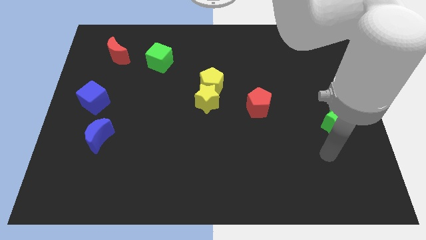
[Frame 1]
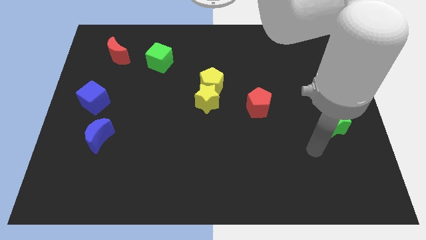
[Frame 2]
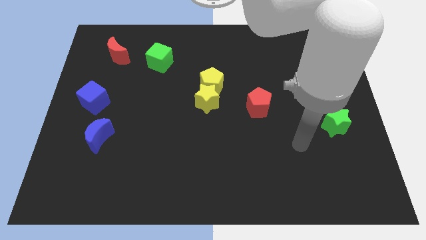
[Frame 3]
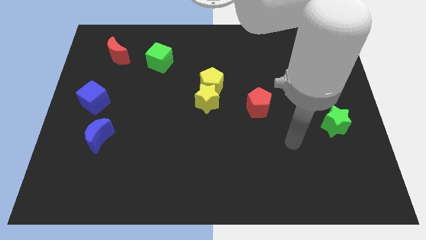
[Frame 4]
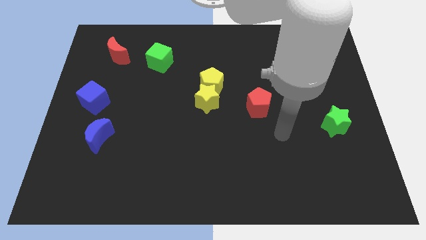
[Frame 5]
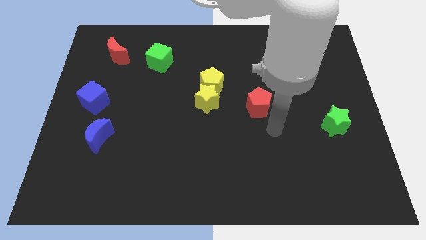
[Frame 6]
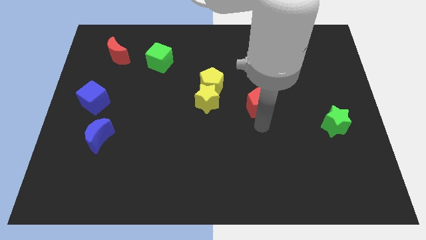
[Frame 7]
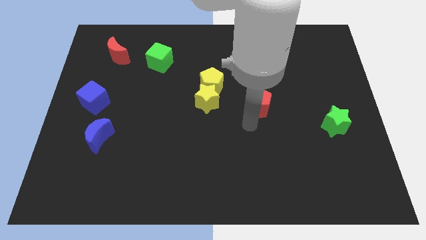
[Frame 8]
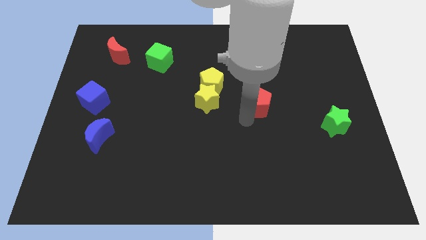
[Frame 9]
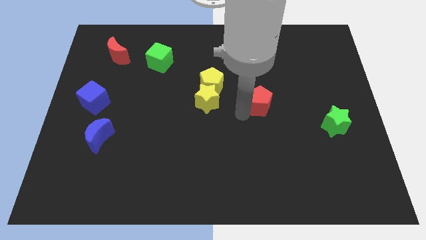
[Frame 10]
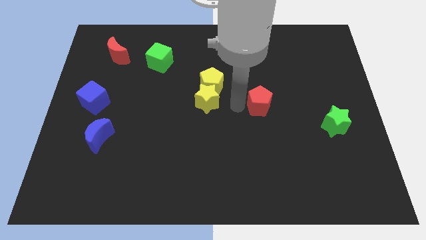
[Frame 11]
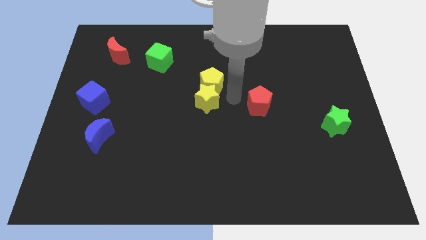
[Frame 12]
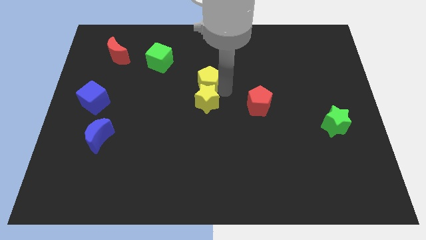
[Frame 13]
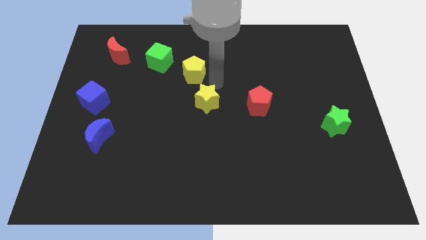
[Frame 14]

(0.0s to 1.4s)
separate the yellow star from the yellow pentagon

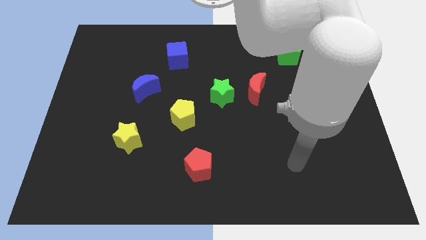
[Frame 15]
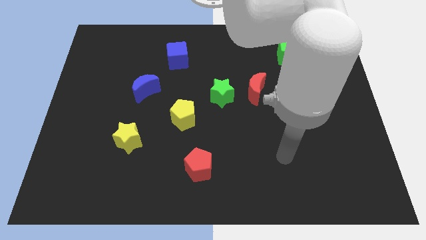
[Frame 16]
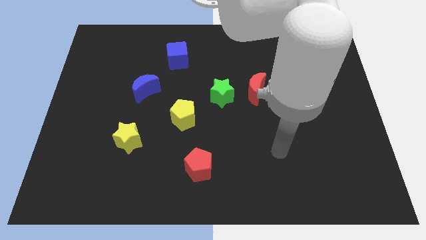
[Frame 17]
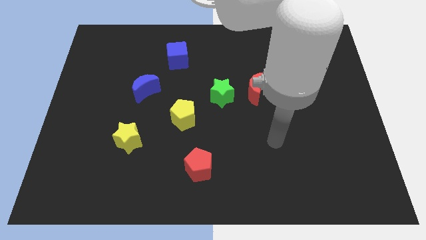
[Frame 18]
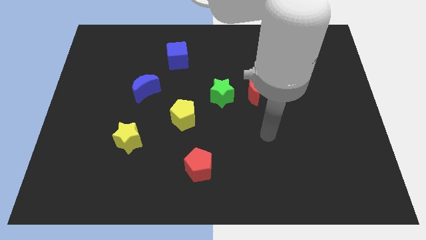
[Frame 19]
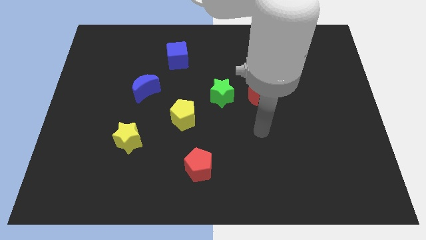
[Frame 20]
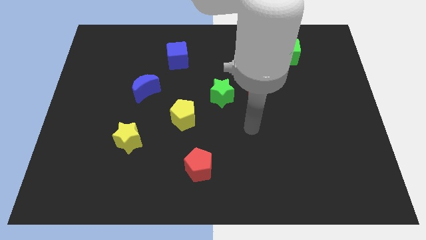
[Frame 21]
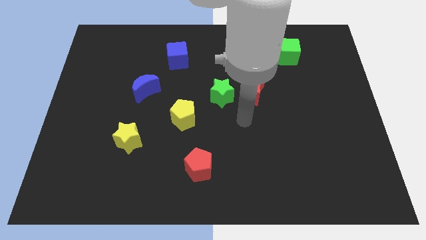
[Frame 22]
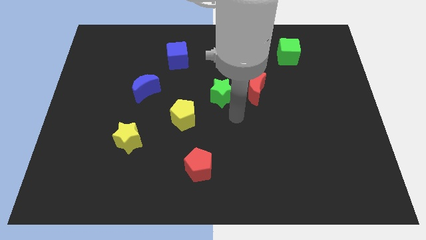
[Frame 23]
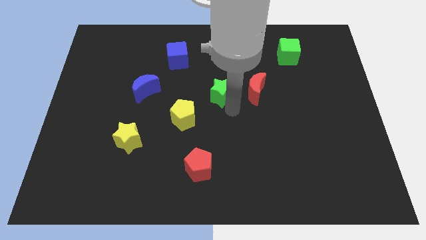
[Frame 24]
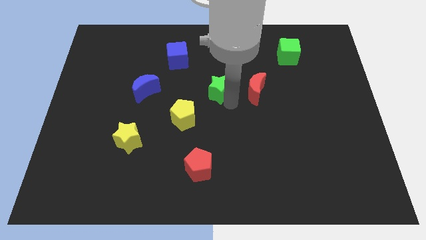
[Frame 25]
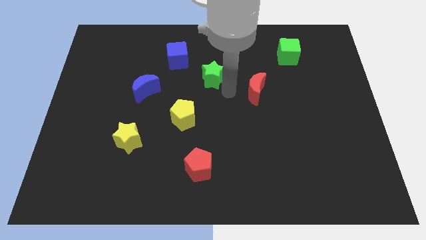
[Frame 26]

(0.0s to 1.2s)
move the red moon away from the green star

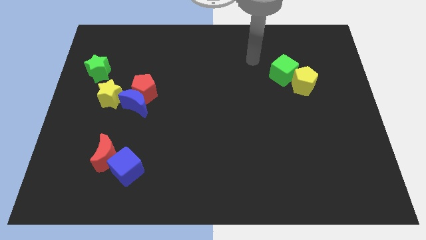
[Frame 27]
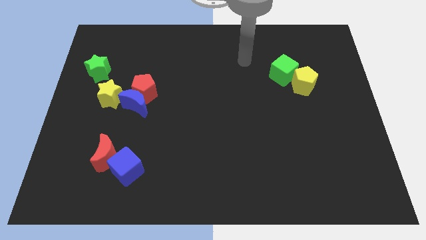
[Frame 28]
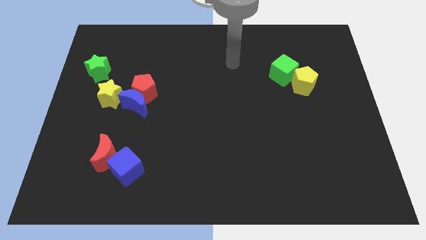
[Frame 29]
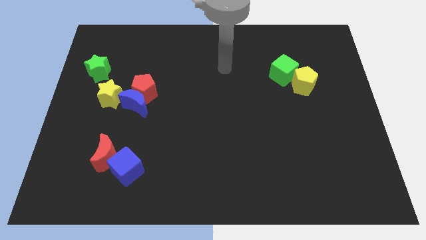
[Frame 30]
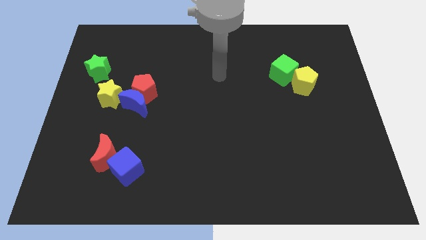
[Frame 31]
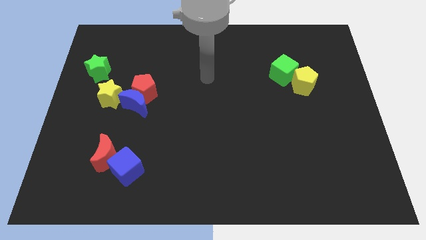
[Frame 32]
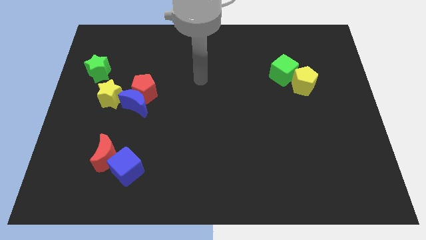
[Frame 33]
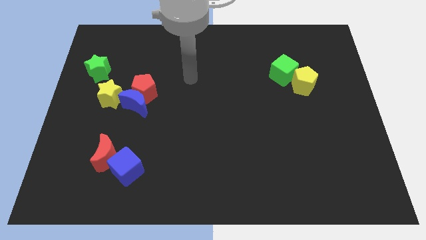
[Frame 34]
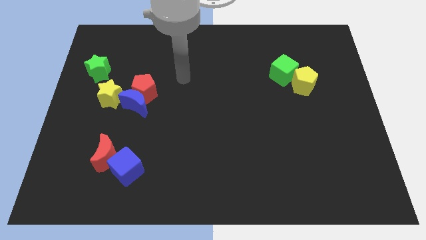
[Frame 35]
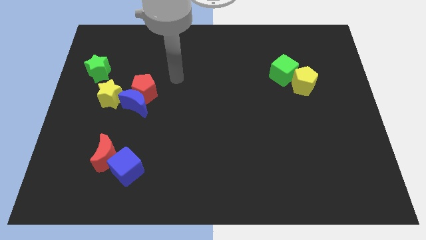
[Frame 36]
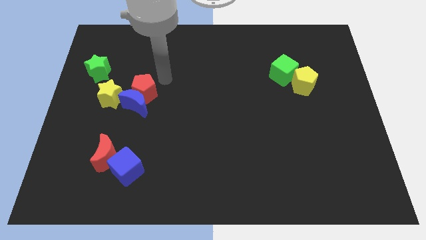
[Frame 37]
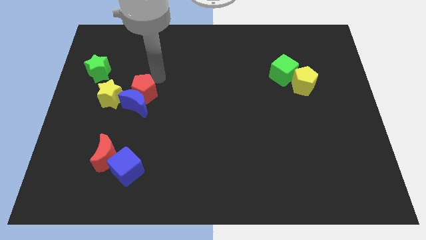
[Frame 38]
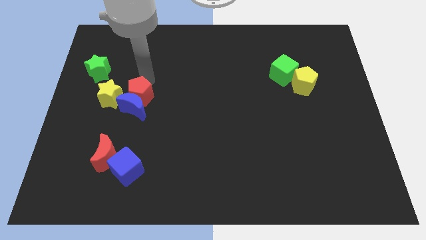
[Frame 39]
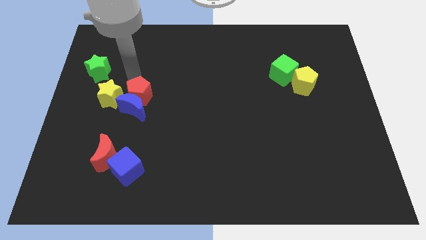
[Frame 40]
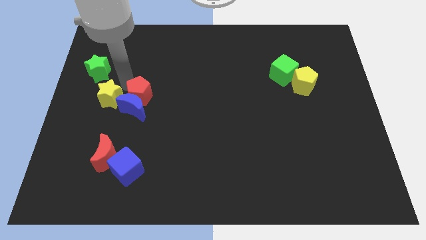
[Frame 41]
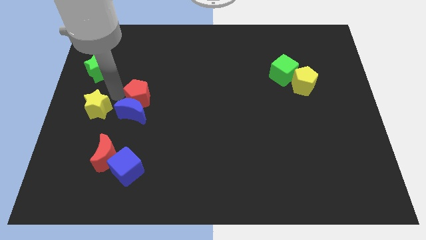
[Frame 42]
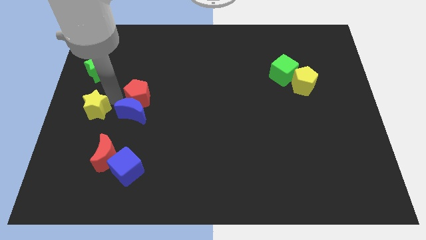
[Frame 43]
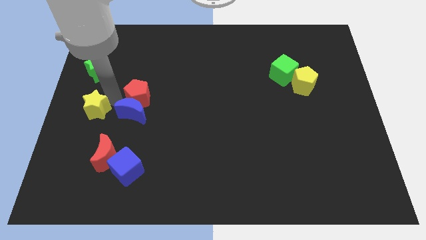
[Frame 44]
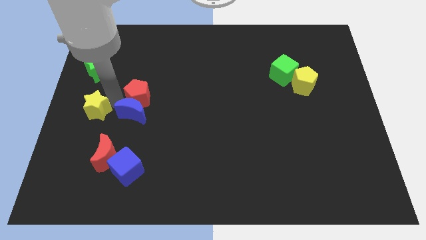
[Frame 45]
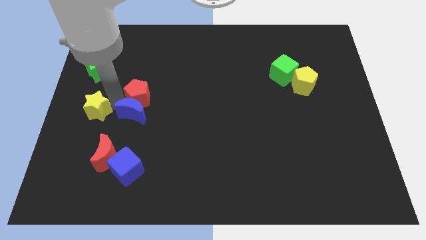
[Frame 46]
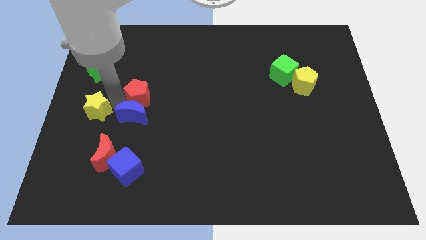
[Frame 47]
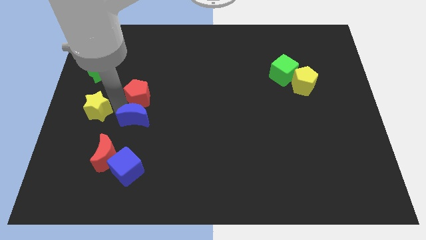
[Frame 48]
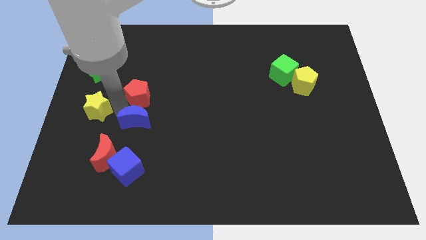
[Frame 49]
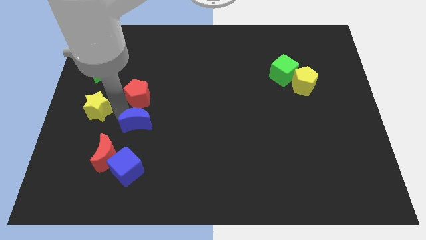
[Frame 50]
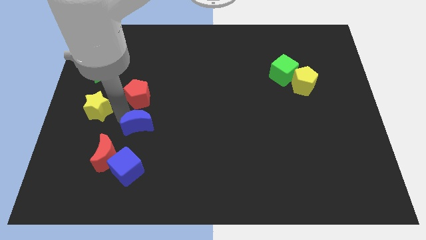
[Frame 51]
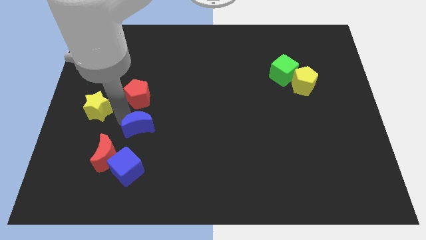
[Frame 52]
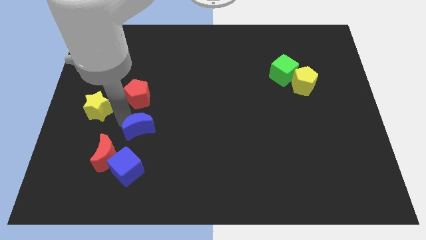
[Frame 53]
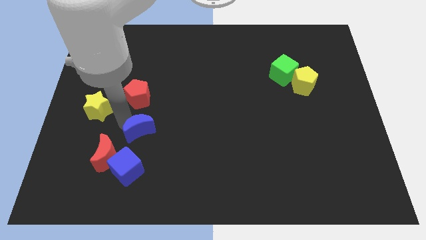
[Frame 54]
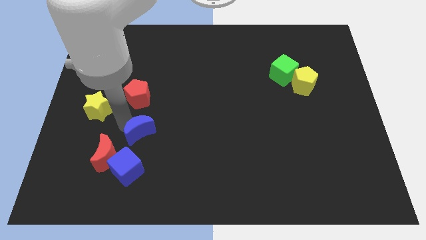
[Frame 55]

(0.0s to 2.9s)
separate the blue moon from the red pentagon and yellow star

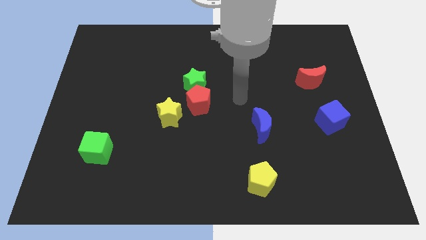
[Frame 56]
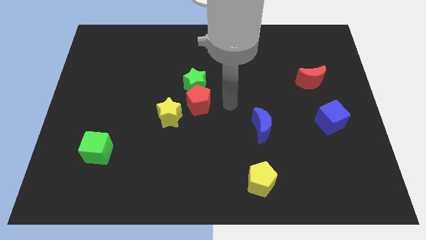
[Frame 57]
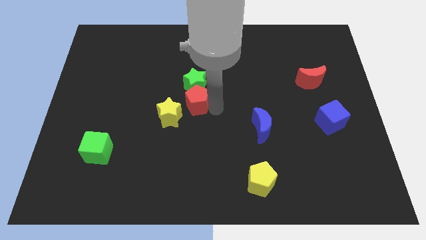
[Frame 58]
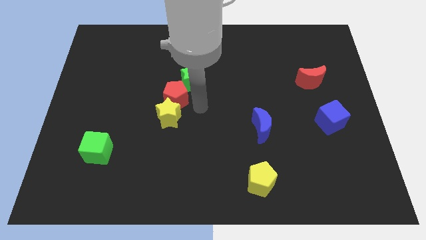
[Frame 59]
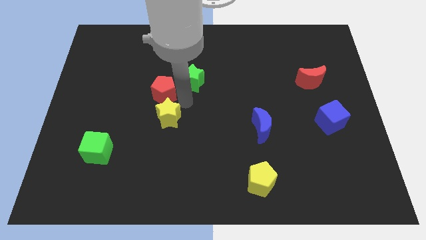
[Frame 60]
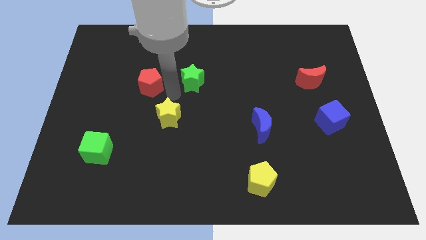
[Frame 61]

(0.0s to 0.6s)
separate the green star from the red pentagon

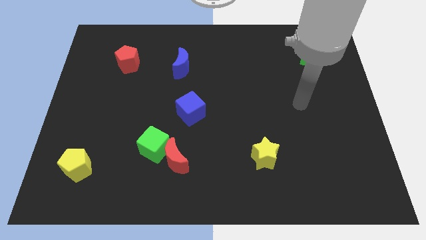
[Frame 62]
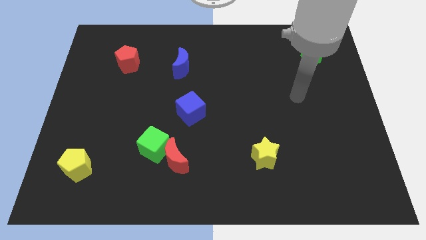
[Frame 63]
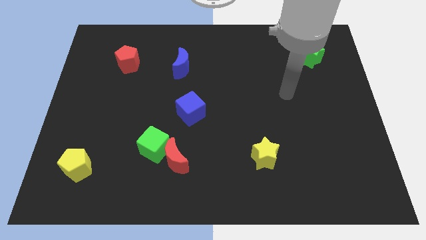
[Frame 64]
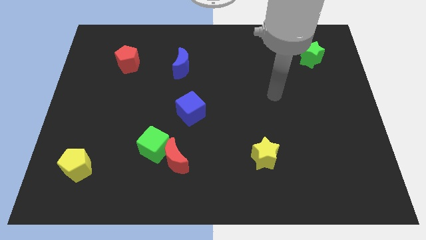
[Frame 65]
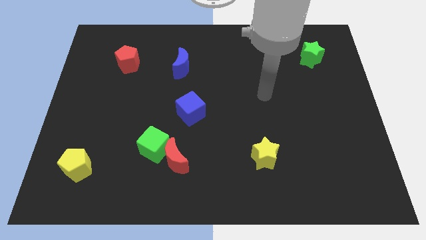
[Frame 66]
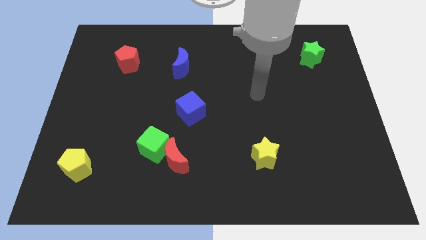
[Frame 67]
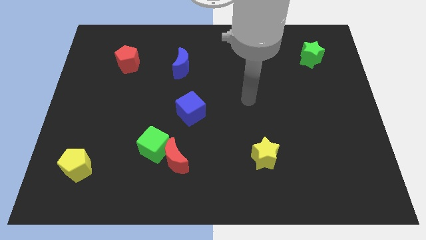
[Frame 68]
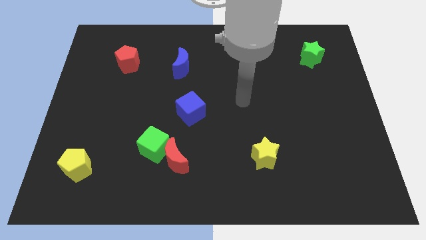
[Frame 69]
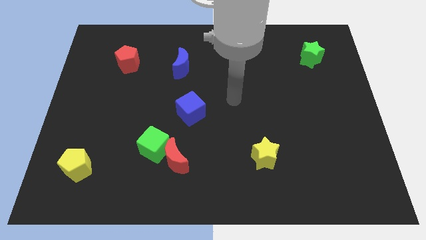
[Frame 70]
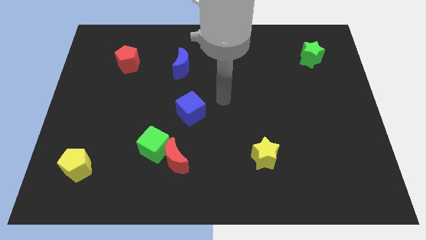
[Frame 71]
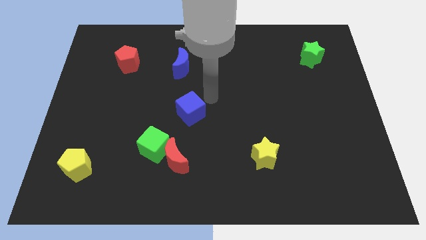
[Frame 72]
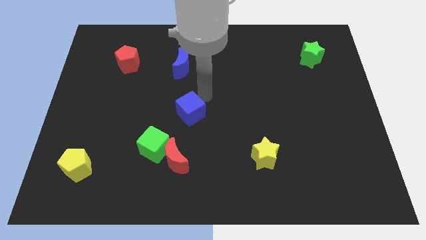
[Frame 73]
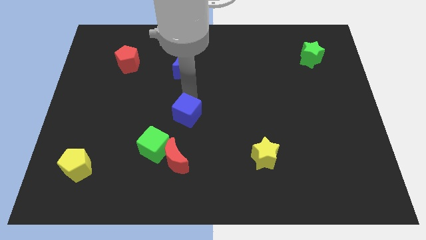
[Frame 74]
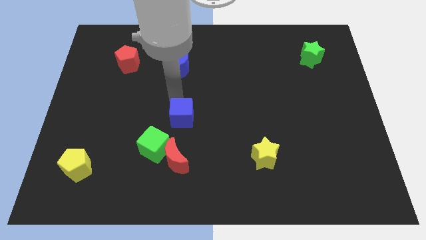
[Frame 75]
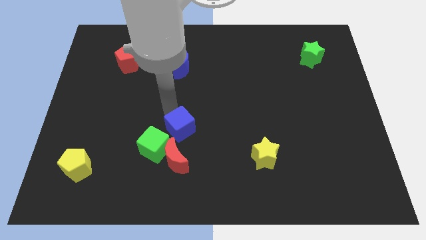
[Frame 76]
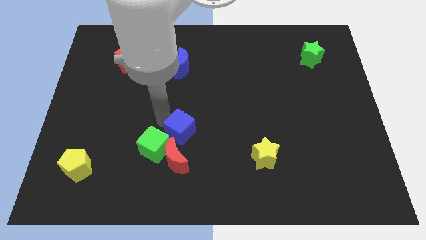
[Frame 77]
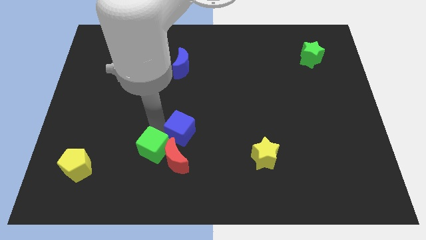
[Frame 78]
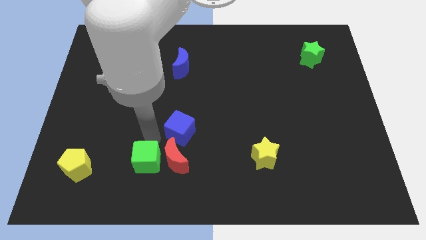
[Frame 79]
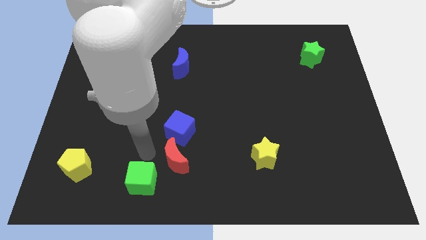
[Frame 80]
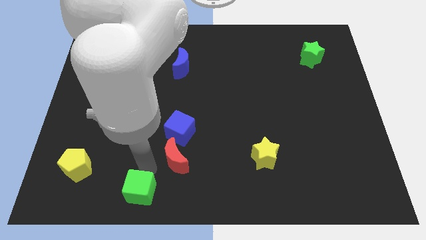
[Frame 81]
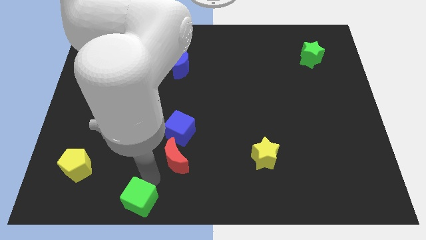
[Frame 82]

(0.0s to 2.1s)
pull the red moon apart from the green cube

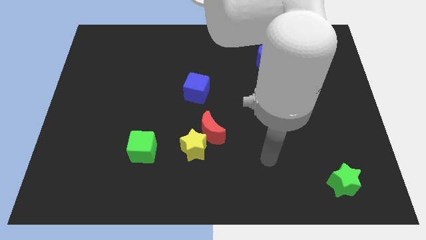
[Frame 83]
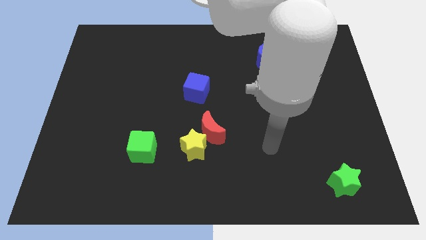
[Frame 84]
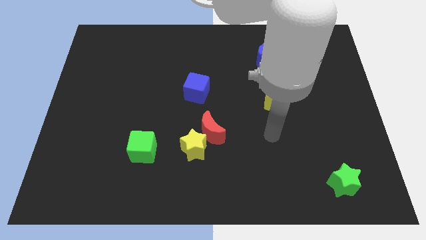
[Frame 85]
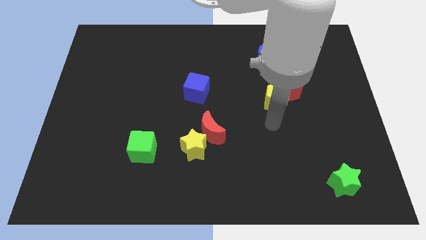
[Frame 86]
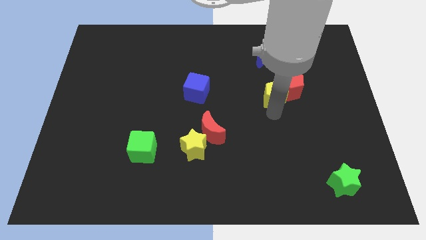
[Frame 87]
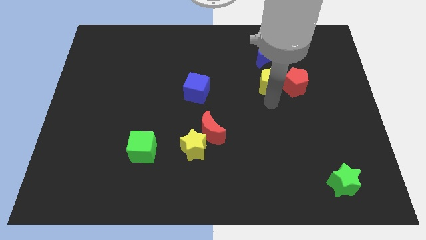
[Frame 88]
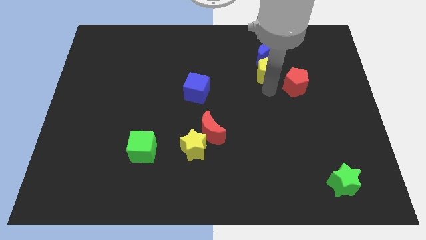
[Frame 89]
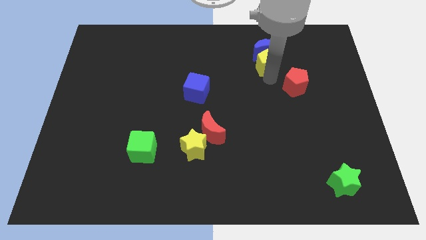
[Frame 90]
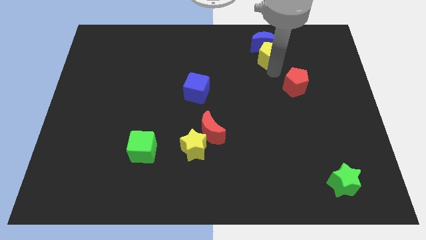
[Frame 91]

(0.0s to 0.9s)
separate the red pentagon from the yellow pentagon

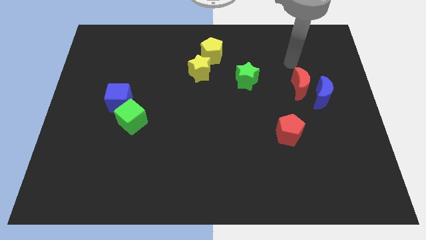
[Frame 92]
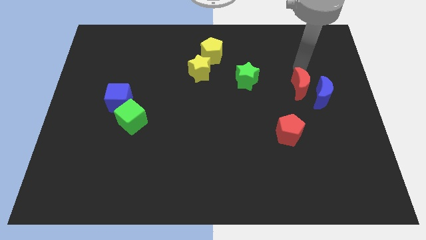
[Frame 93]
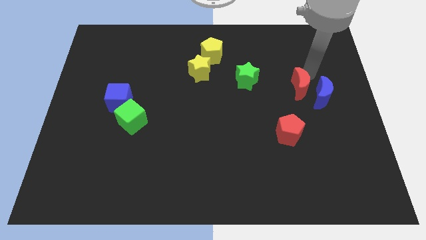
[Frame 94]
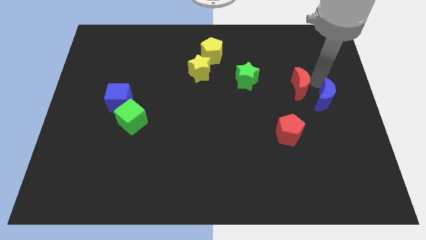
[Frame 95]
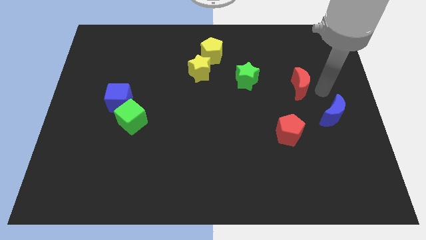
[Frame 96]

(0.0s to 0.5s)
move the red moon away from the blue moon
